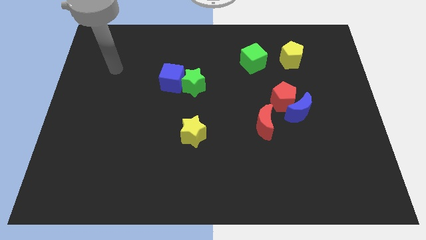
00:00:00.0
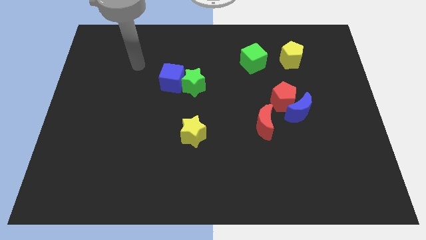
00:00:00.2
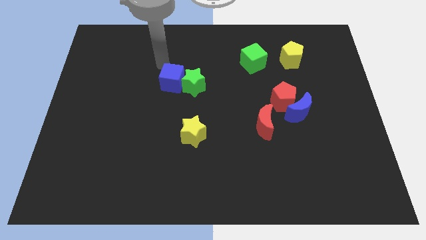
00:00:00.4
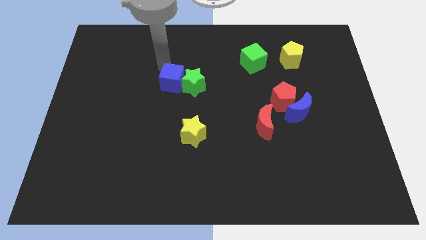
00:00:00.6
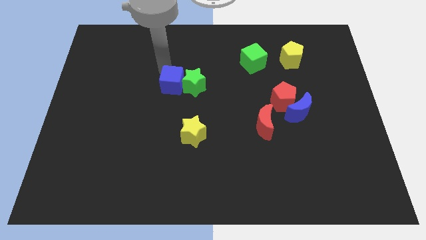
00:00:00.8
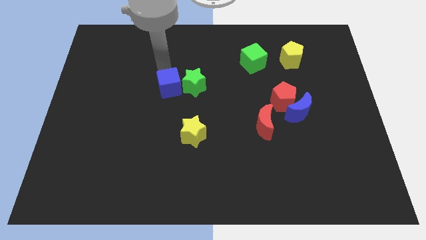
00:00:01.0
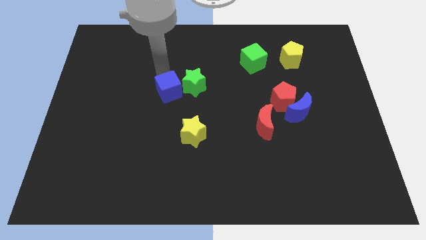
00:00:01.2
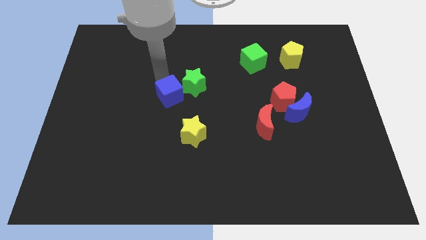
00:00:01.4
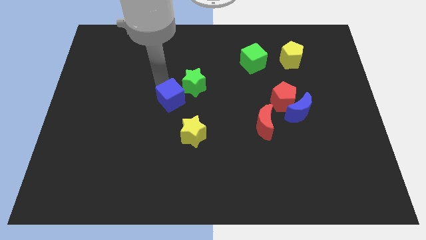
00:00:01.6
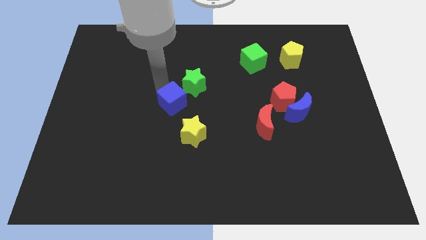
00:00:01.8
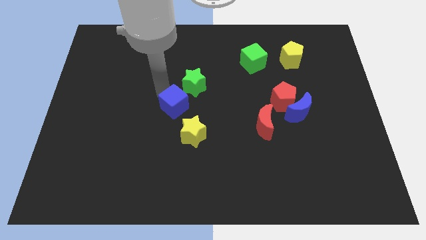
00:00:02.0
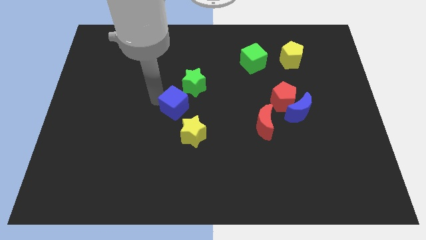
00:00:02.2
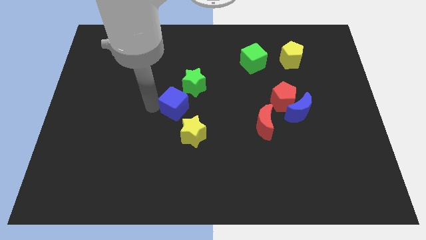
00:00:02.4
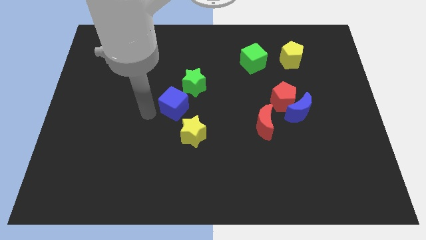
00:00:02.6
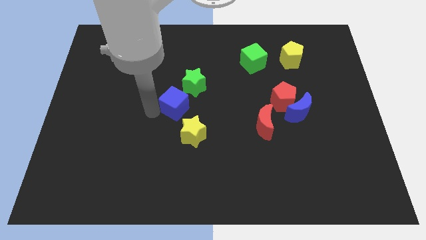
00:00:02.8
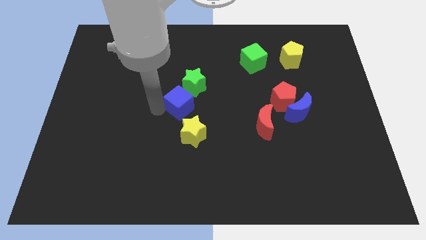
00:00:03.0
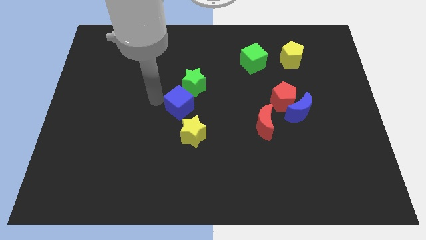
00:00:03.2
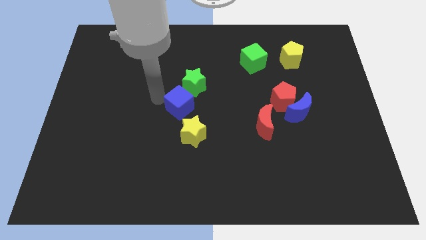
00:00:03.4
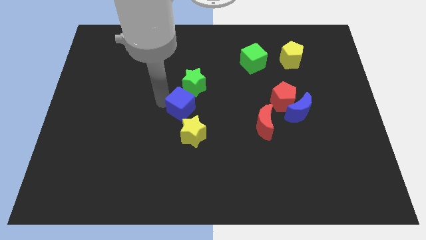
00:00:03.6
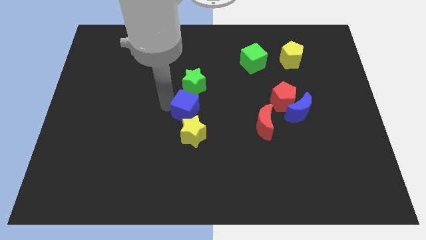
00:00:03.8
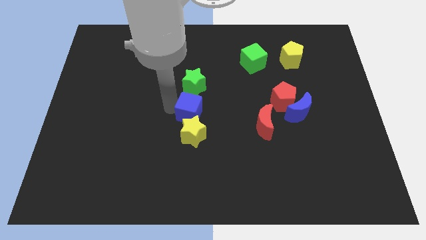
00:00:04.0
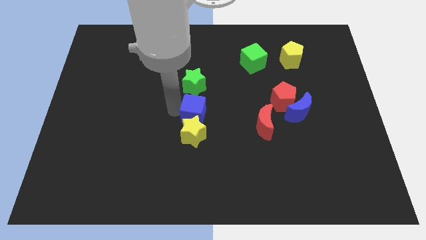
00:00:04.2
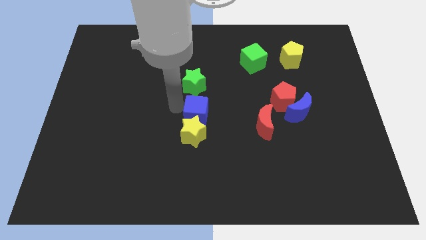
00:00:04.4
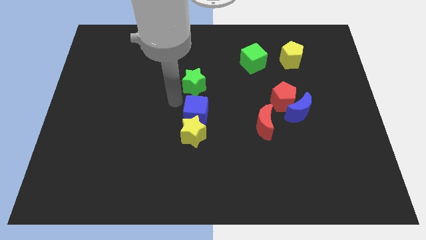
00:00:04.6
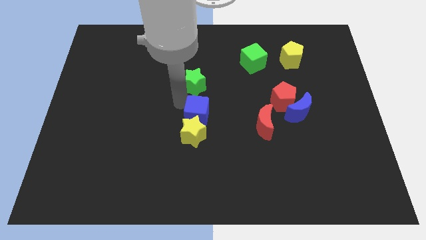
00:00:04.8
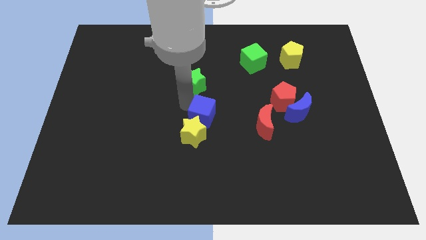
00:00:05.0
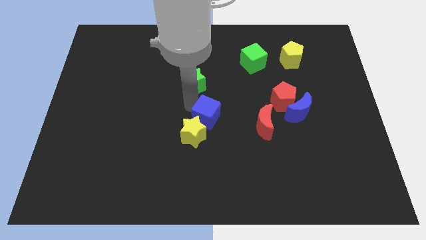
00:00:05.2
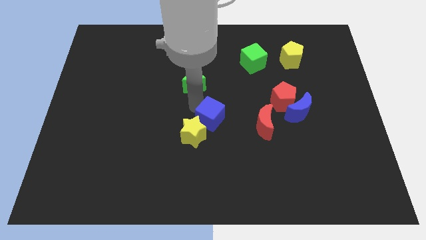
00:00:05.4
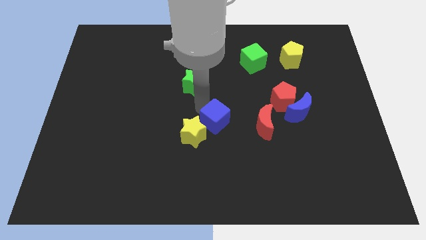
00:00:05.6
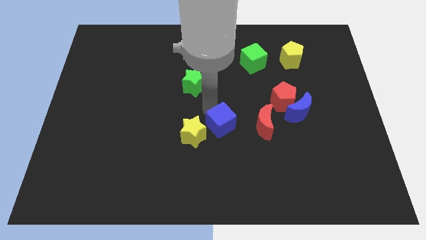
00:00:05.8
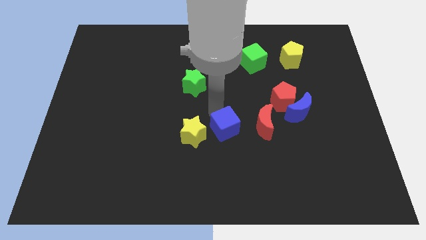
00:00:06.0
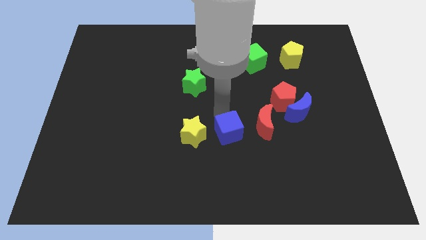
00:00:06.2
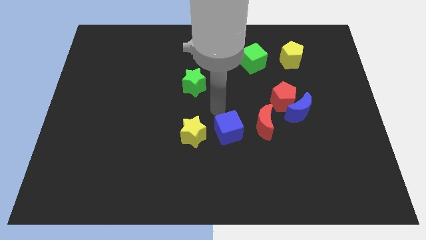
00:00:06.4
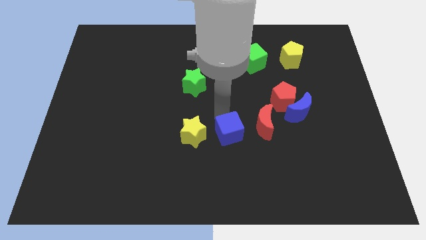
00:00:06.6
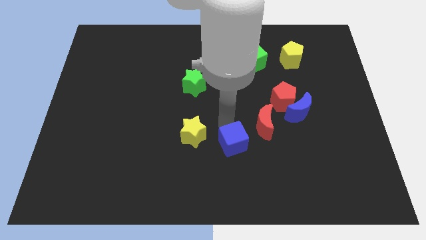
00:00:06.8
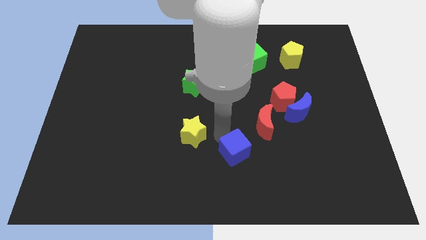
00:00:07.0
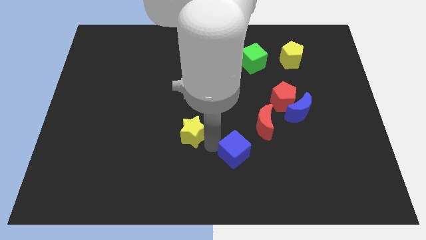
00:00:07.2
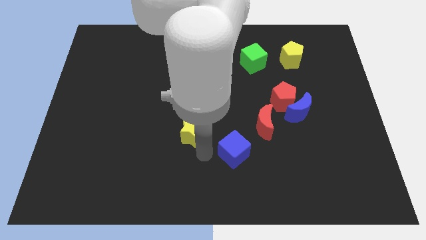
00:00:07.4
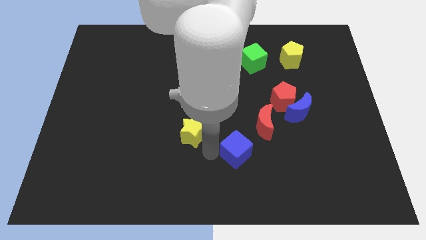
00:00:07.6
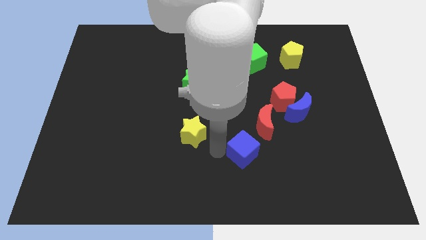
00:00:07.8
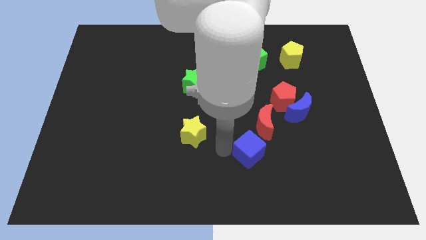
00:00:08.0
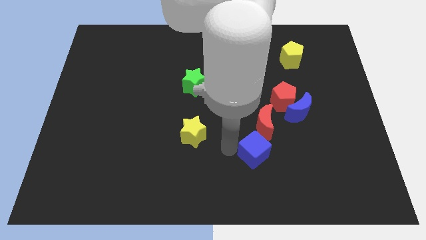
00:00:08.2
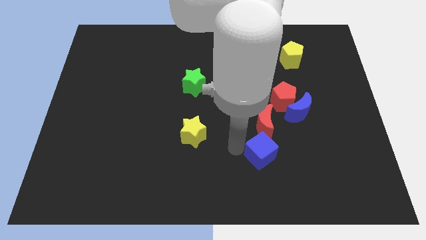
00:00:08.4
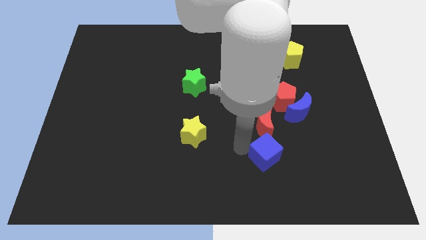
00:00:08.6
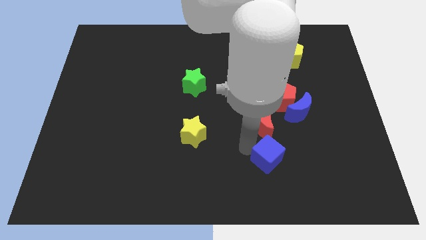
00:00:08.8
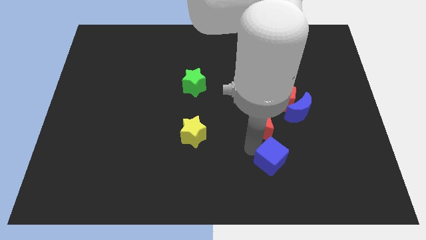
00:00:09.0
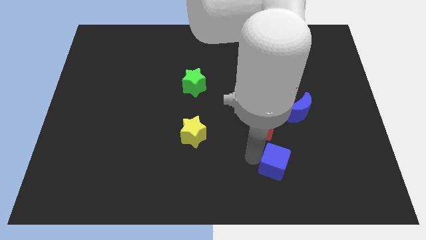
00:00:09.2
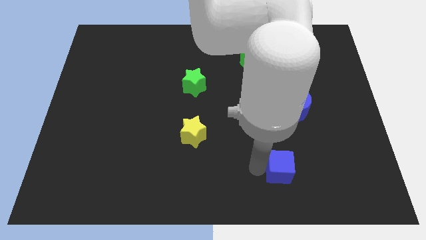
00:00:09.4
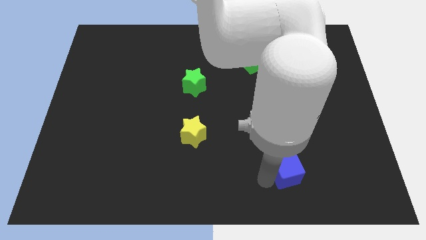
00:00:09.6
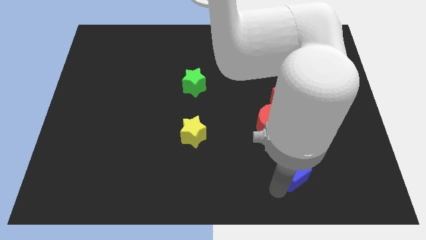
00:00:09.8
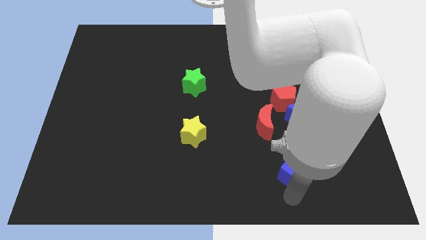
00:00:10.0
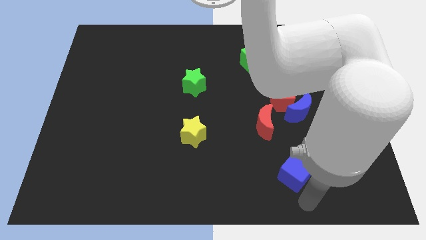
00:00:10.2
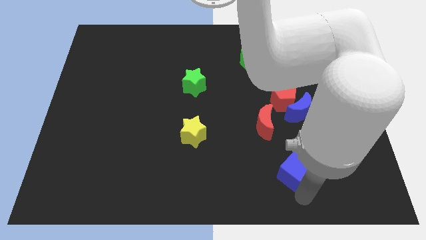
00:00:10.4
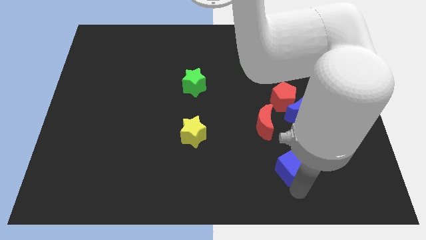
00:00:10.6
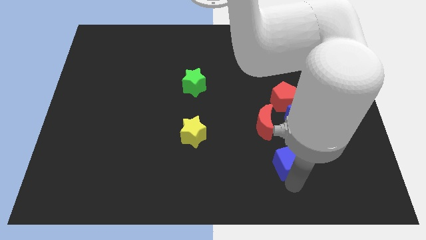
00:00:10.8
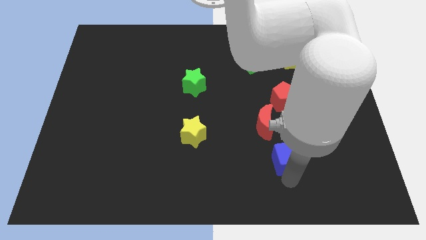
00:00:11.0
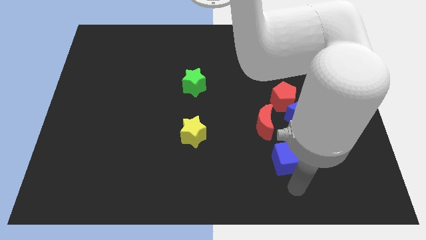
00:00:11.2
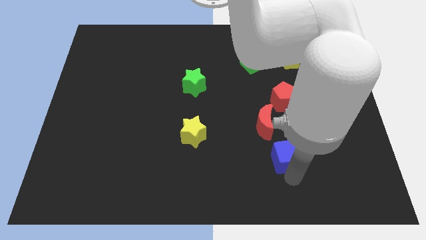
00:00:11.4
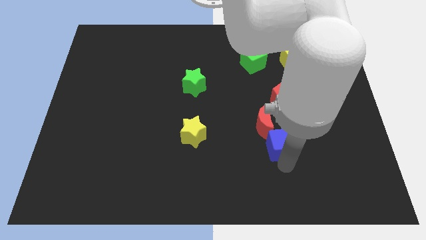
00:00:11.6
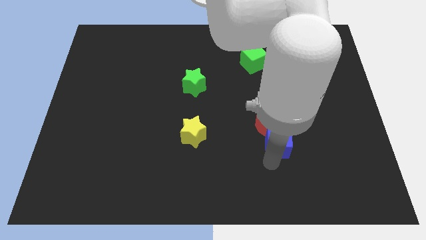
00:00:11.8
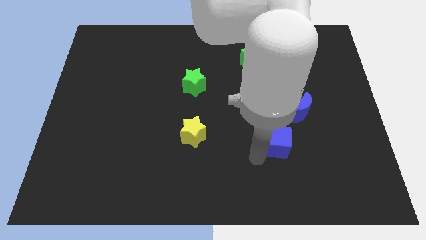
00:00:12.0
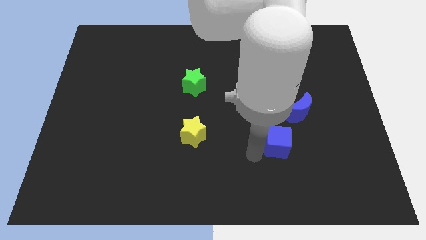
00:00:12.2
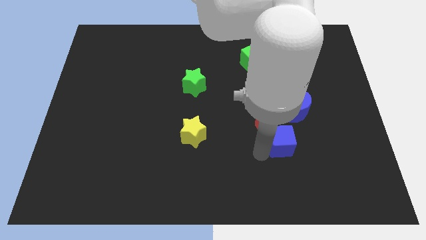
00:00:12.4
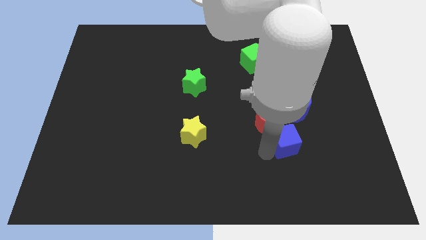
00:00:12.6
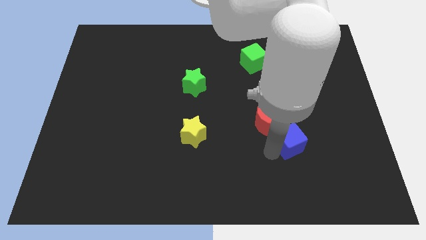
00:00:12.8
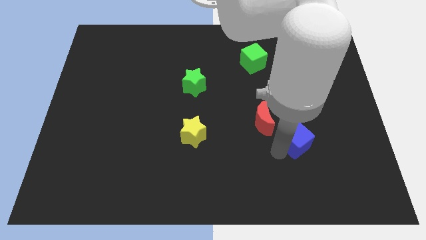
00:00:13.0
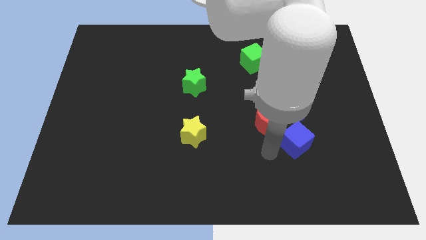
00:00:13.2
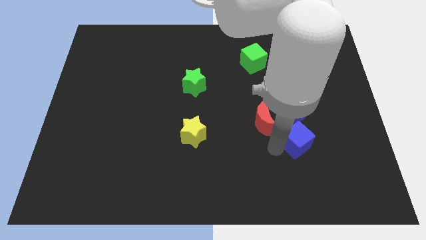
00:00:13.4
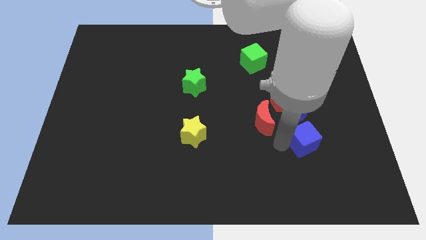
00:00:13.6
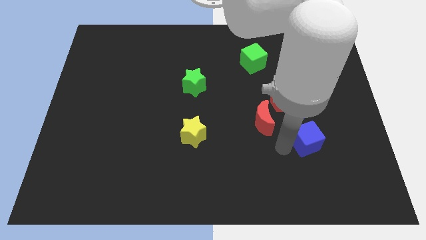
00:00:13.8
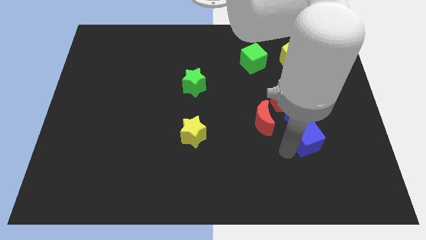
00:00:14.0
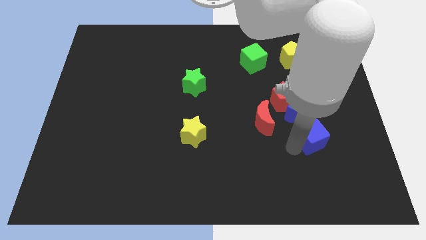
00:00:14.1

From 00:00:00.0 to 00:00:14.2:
slide the blue cube to the bottom right side of the blue moon

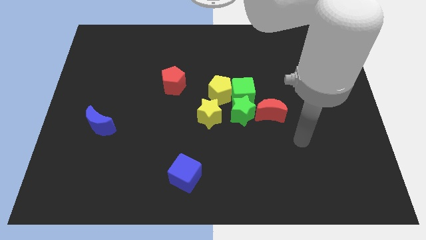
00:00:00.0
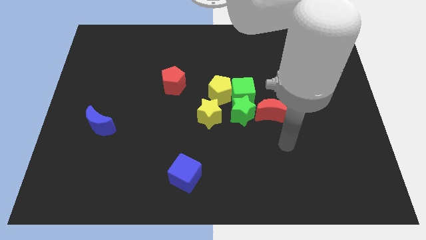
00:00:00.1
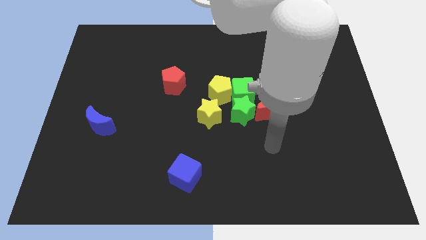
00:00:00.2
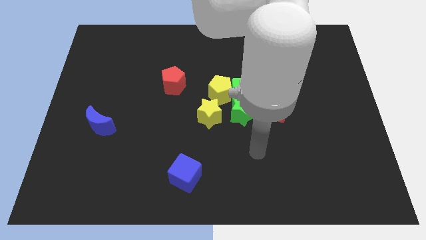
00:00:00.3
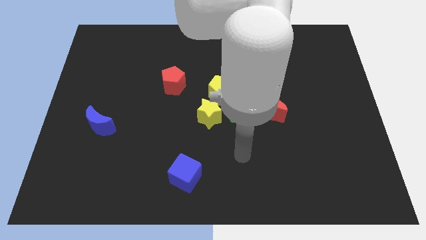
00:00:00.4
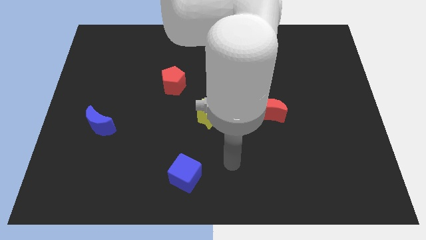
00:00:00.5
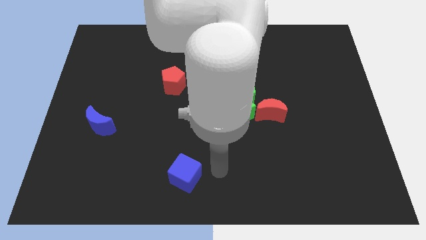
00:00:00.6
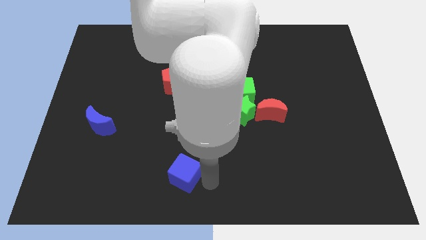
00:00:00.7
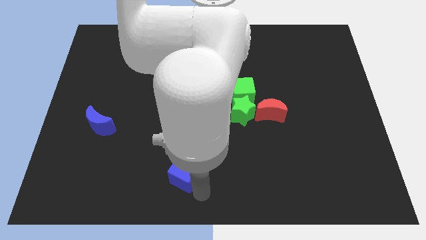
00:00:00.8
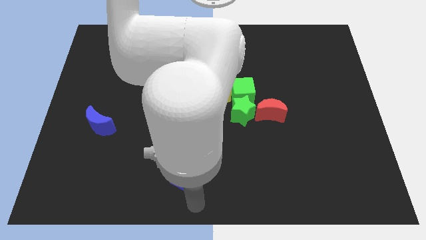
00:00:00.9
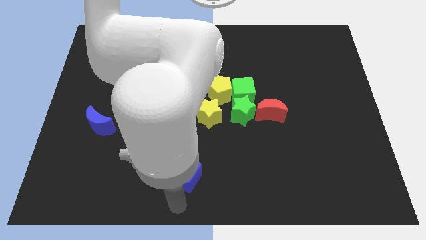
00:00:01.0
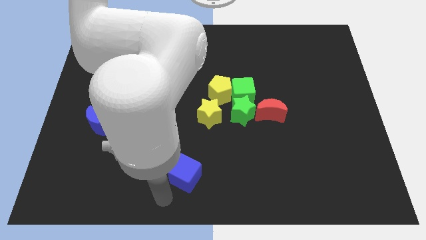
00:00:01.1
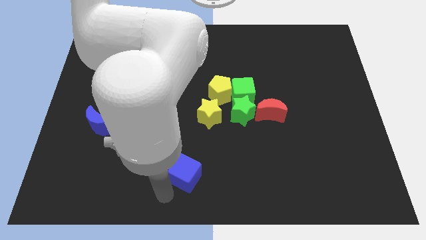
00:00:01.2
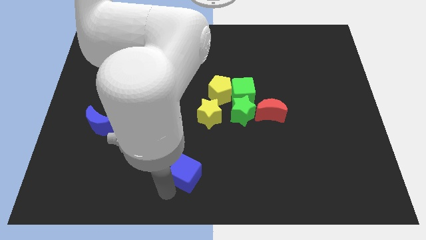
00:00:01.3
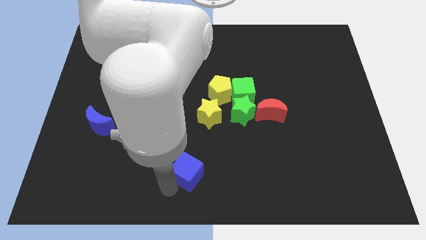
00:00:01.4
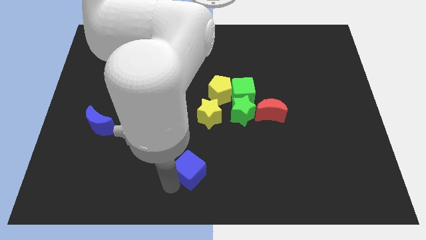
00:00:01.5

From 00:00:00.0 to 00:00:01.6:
slide the blue cube to the bottom side of the yellow star
